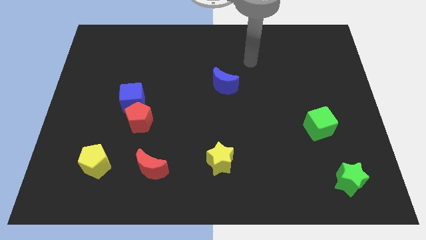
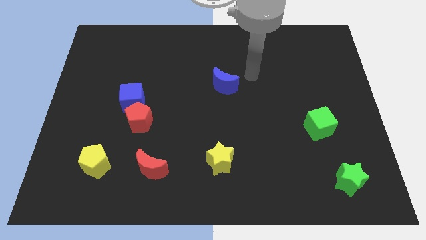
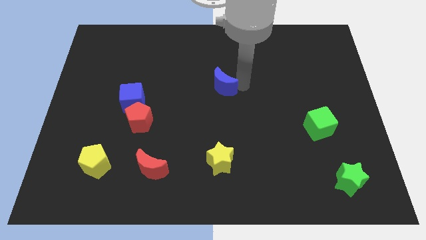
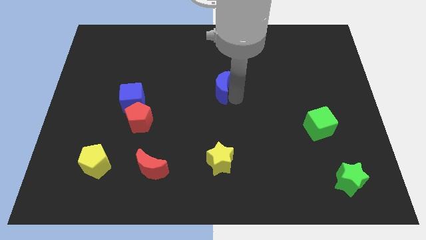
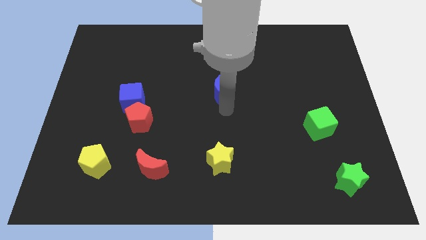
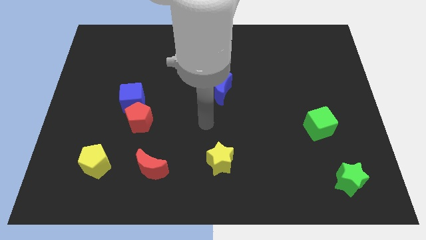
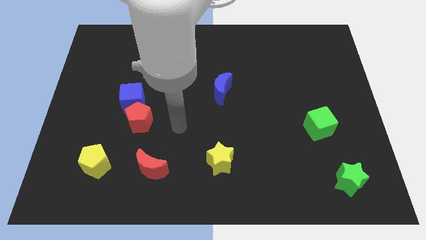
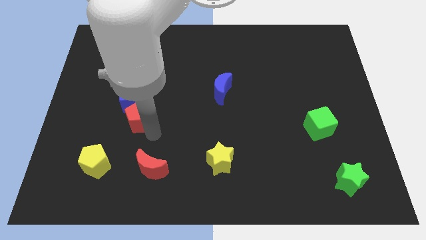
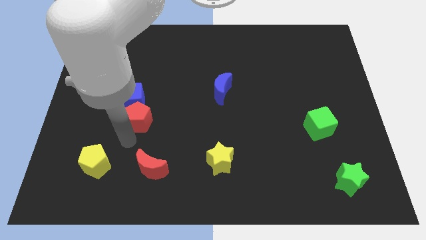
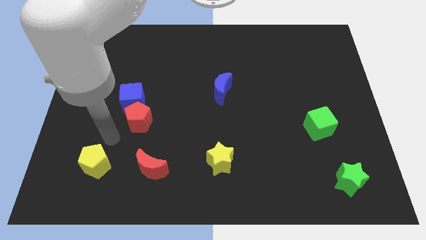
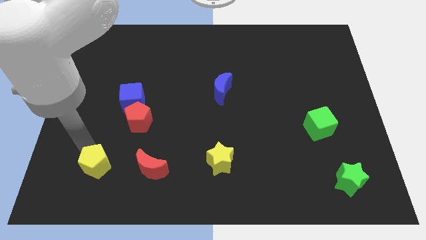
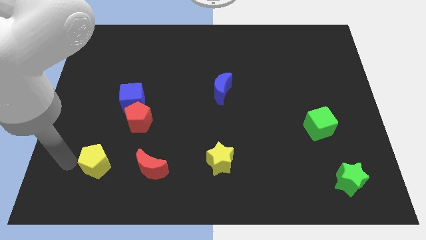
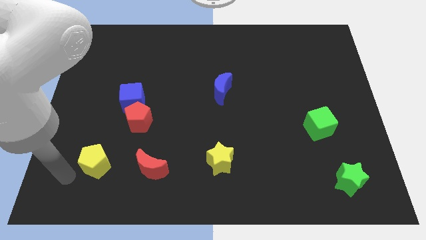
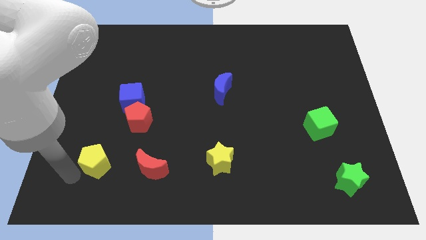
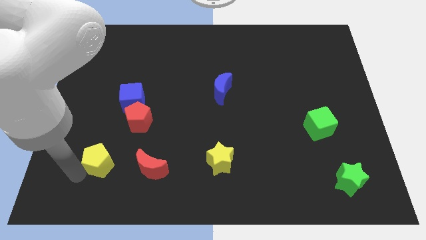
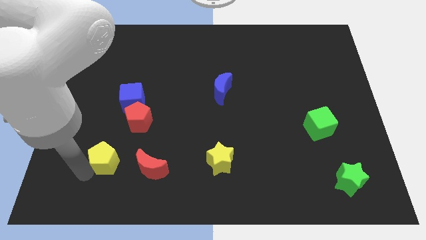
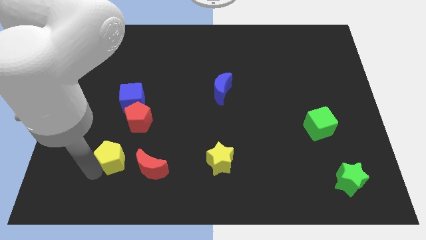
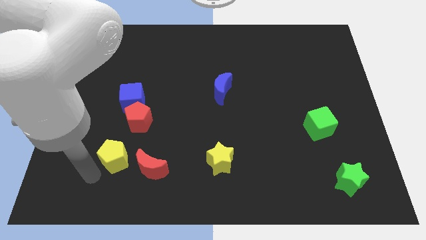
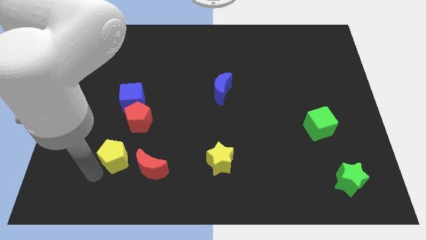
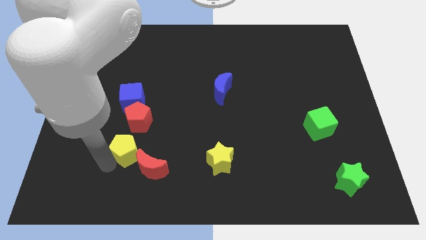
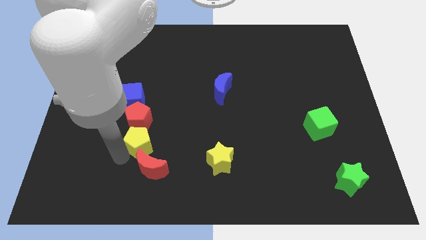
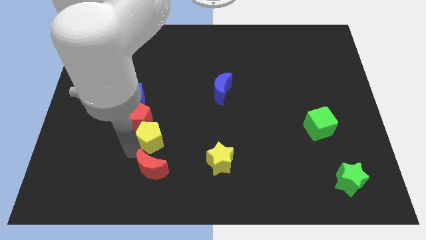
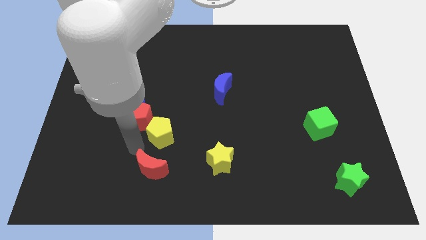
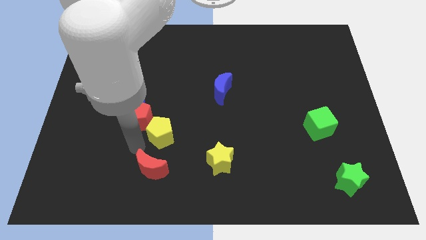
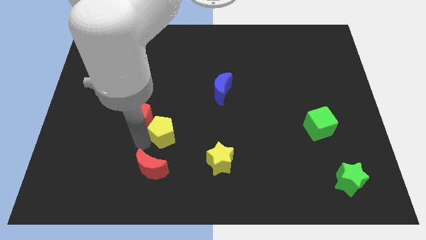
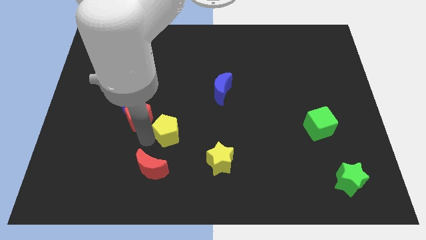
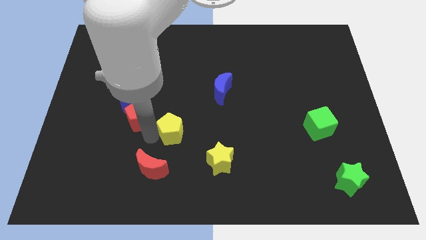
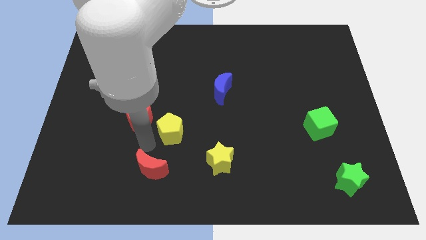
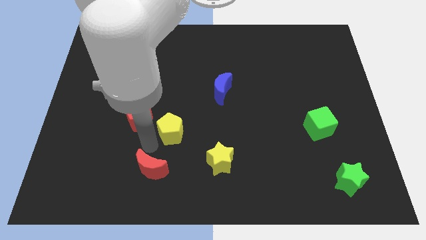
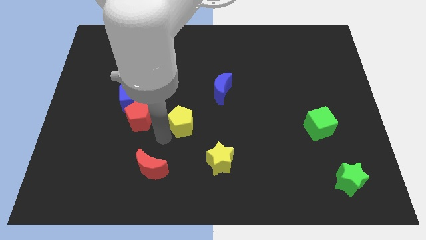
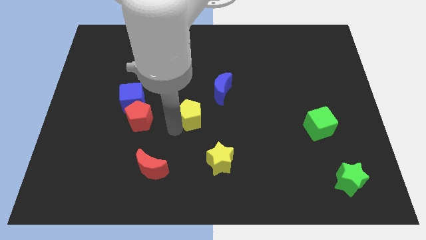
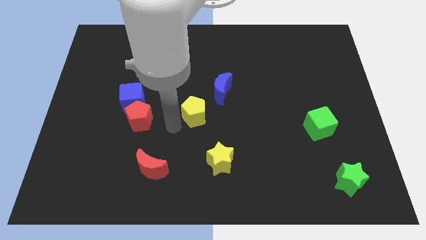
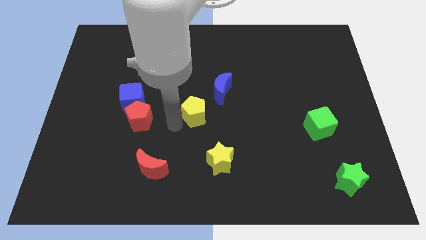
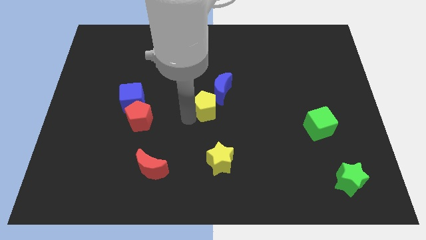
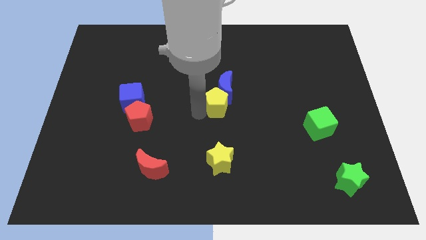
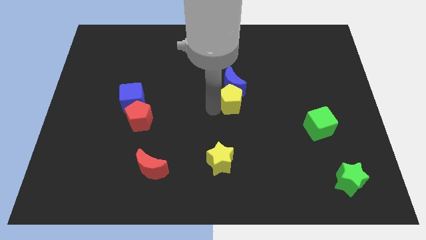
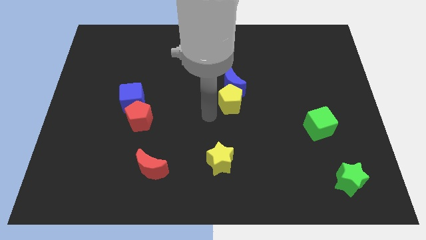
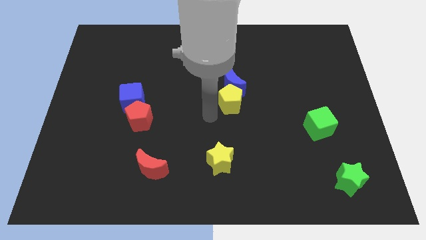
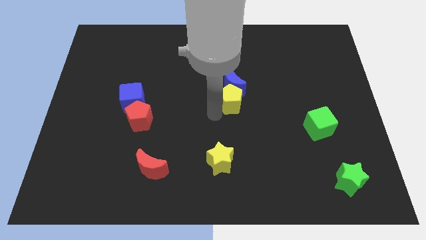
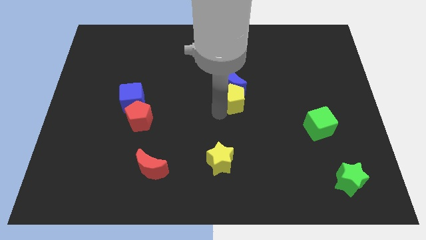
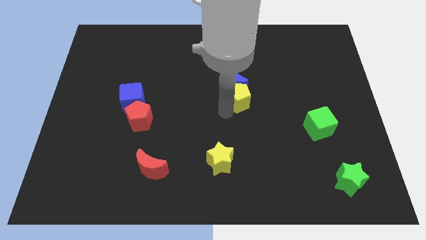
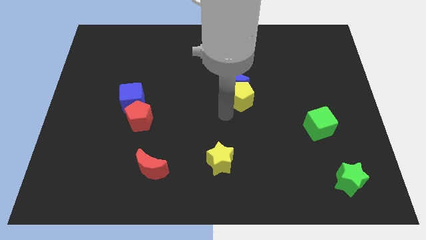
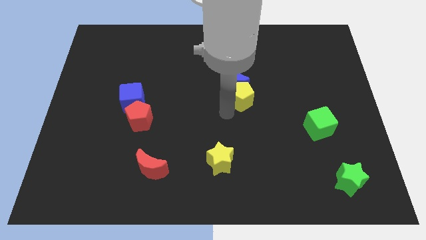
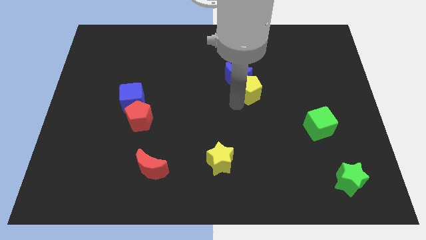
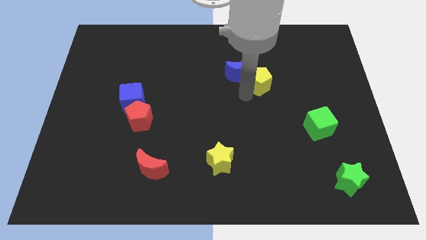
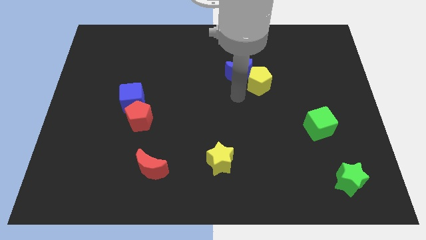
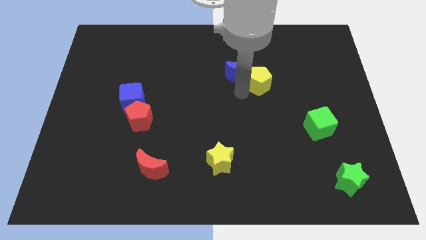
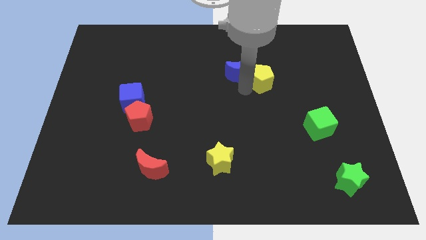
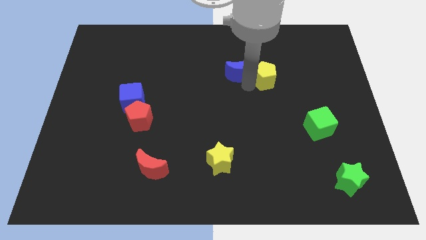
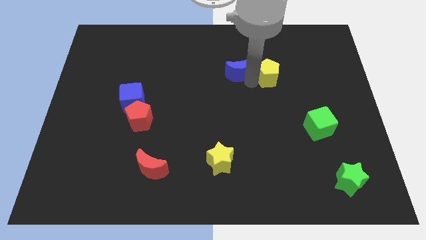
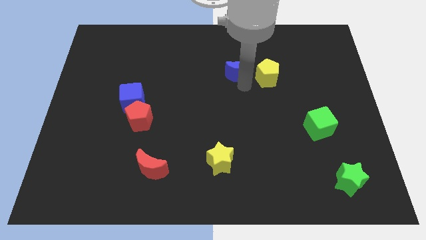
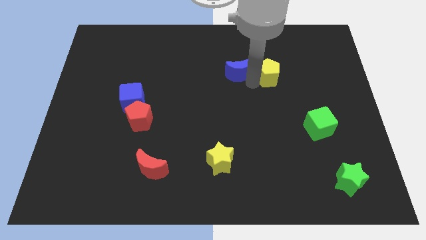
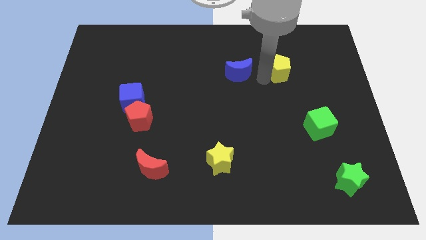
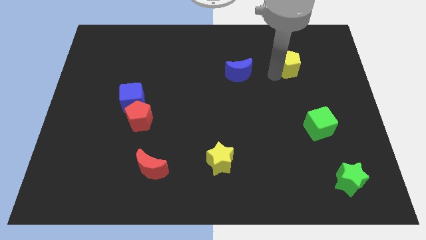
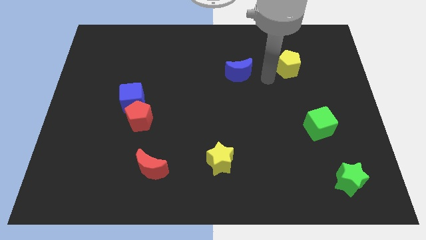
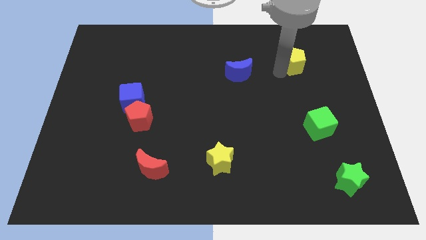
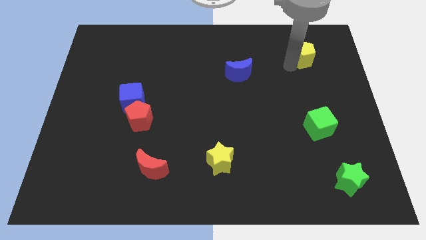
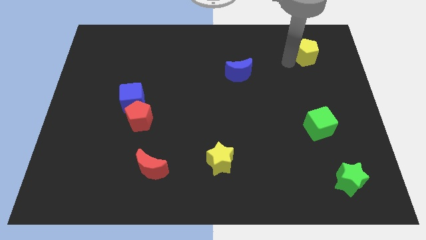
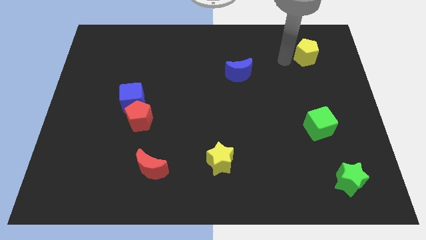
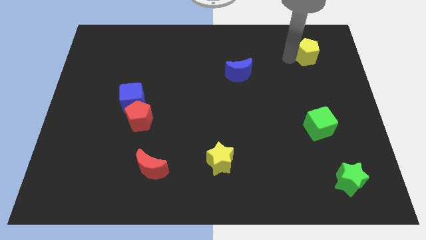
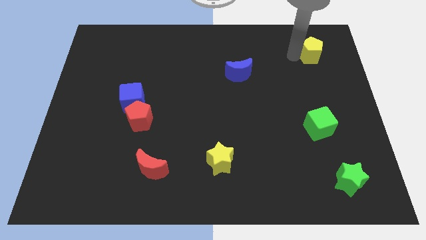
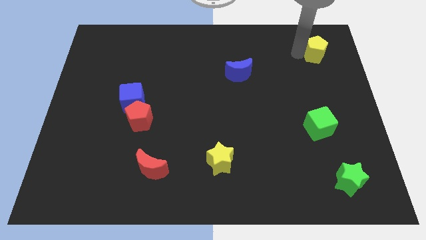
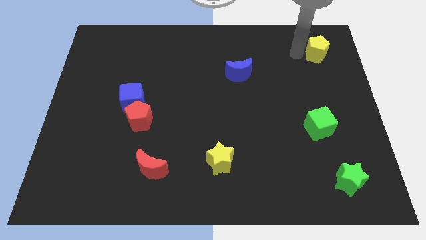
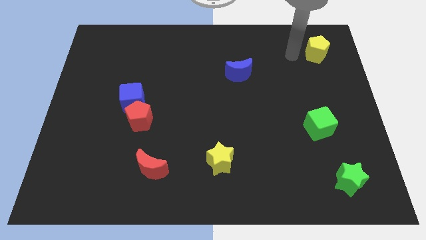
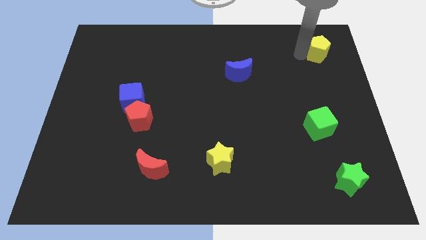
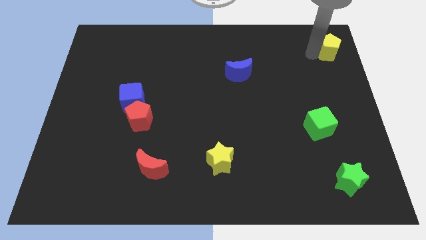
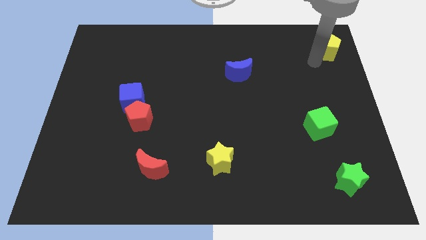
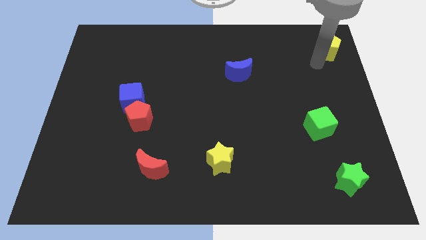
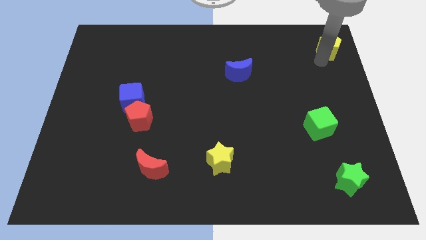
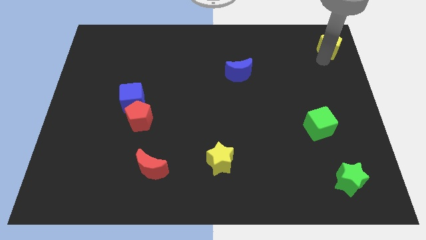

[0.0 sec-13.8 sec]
slide the yellow pentagon to the top right
